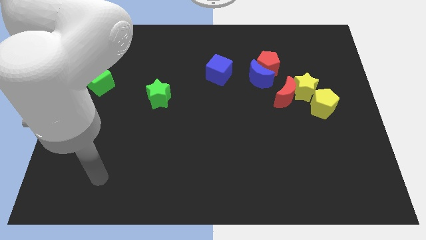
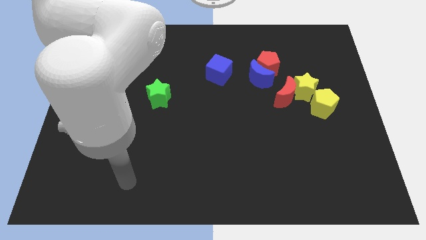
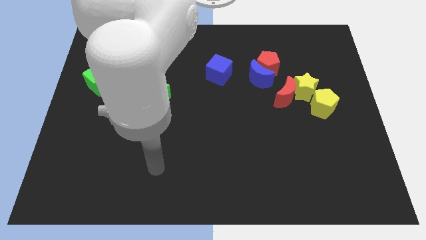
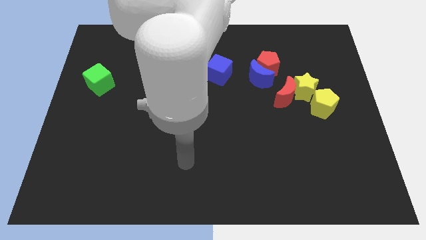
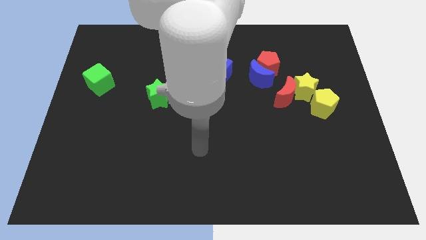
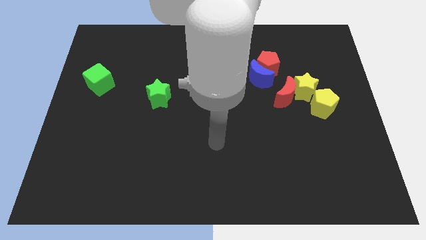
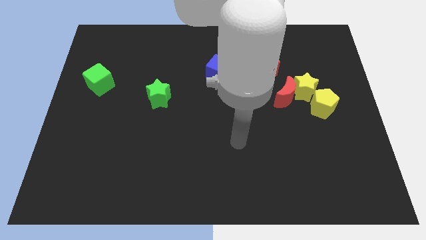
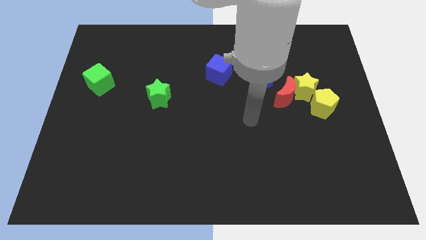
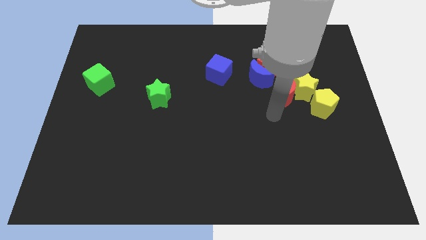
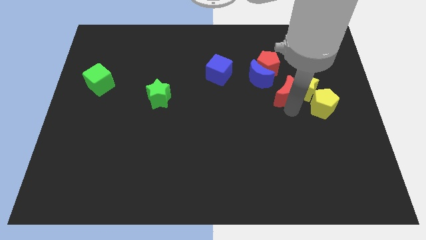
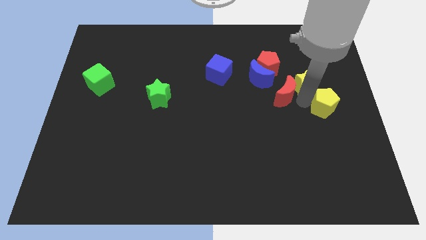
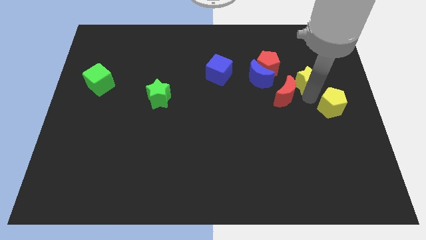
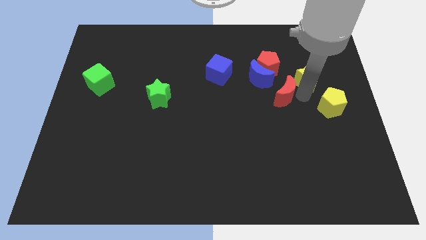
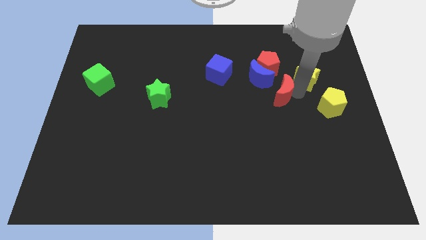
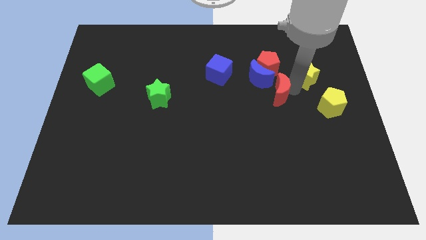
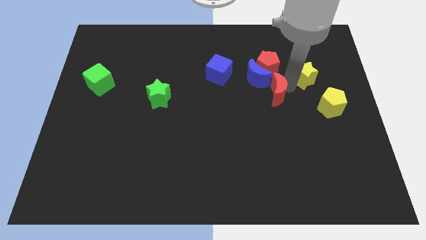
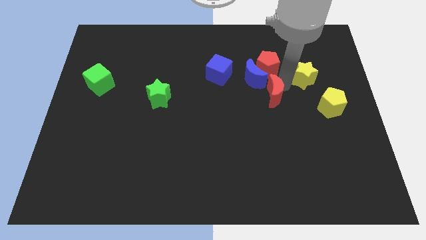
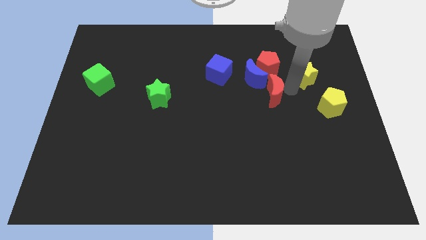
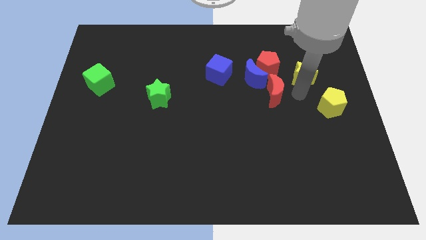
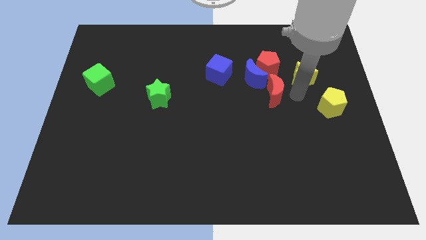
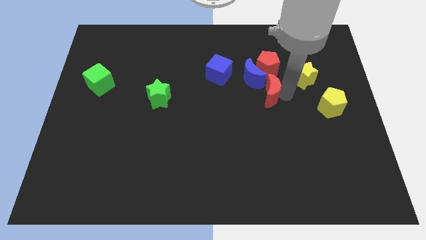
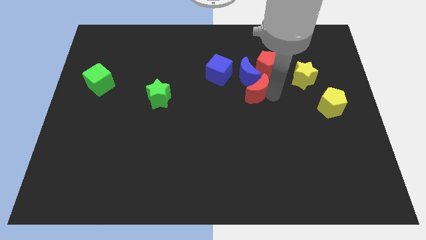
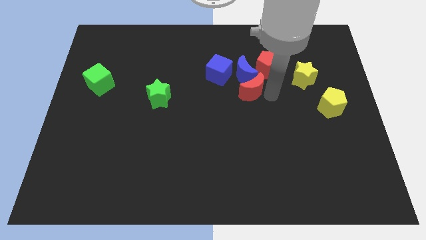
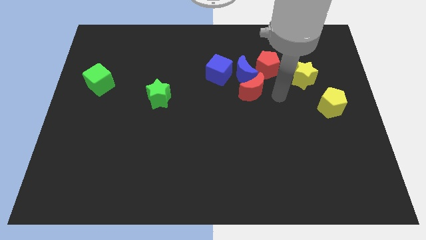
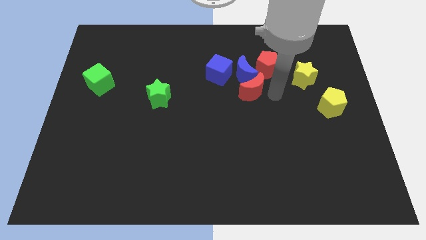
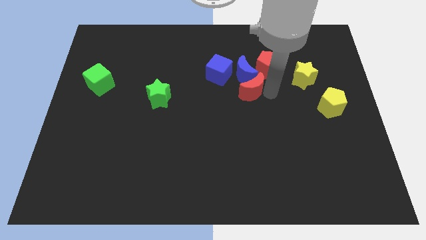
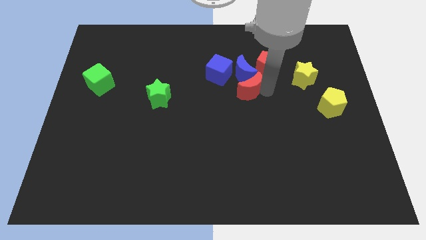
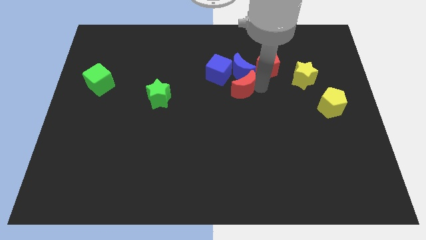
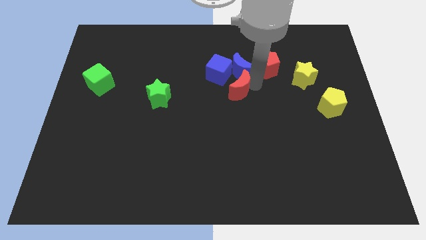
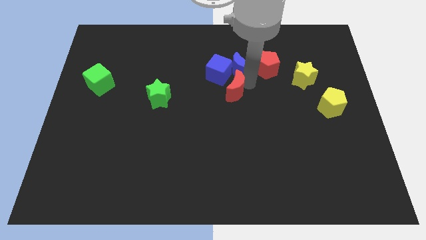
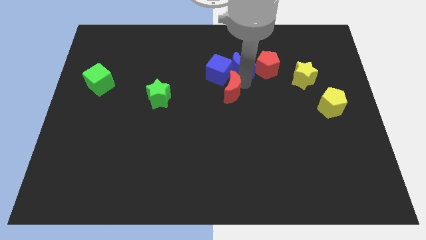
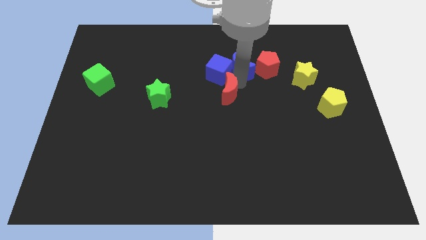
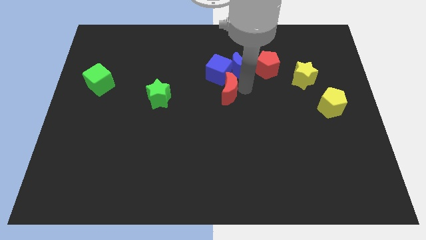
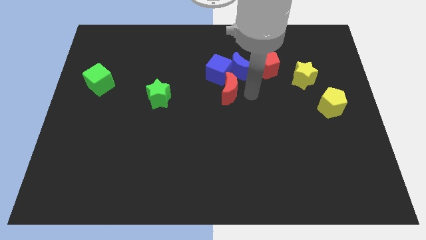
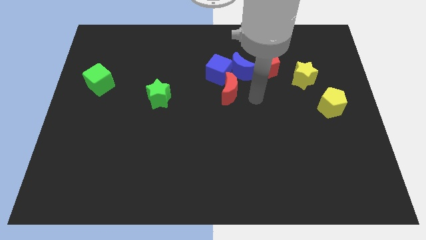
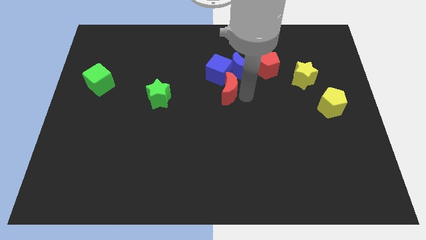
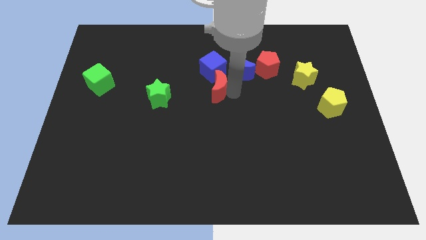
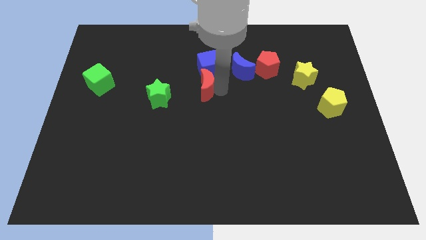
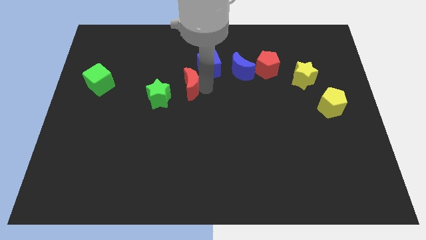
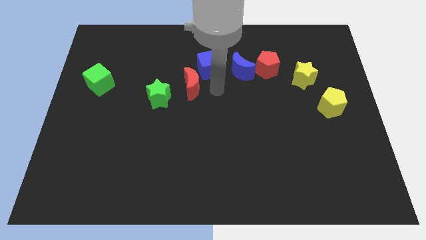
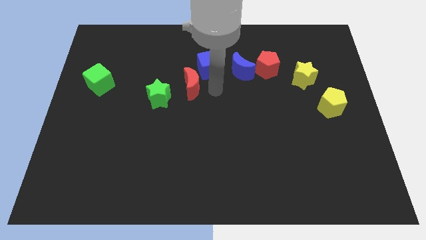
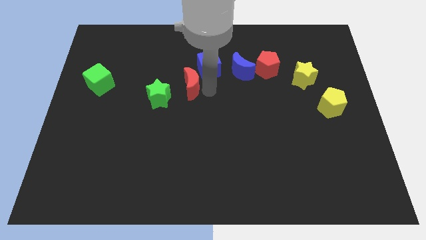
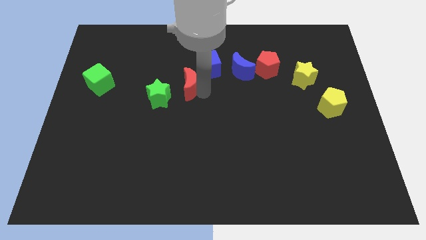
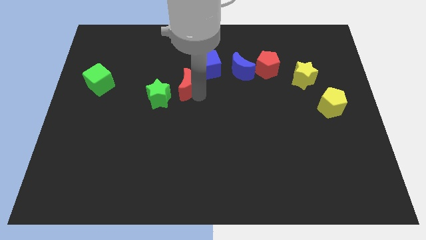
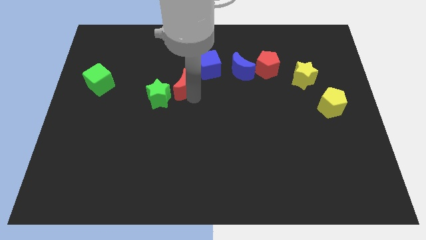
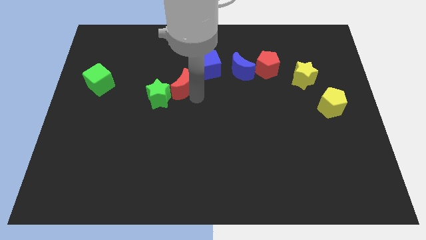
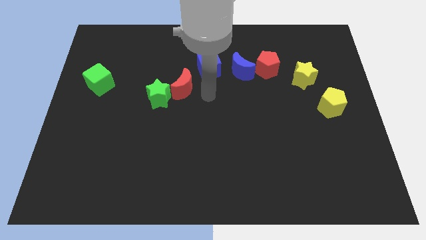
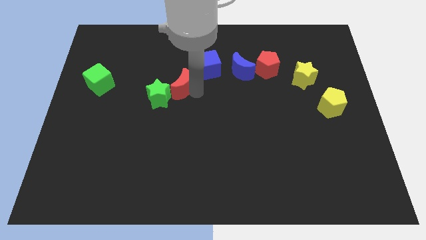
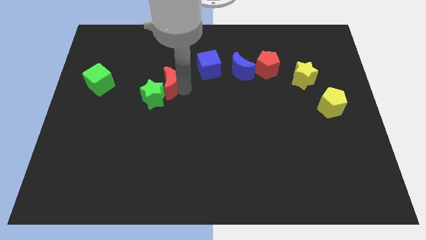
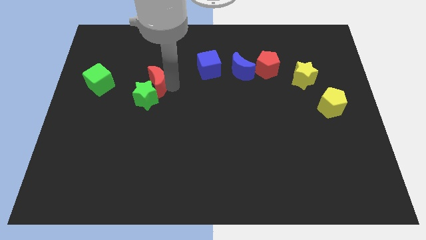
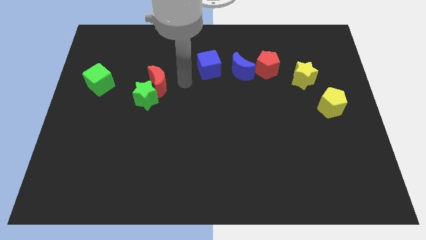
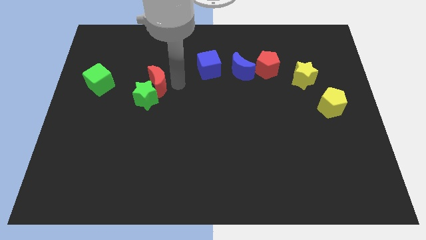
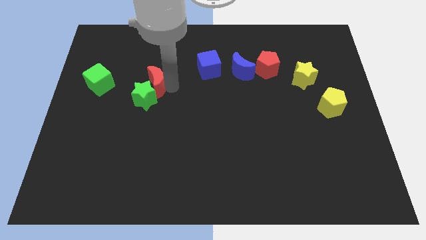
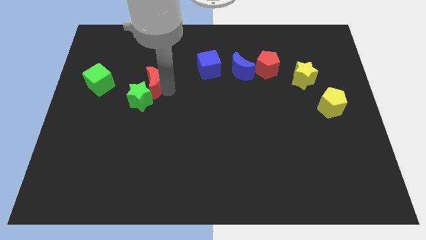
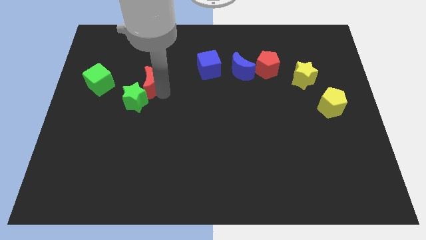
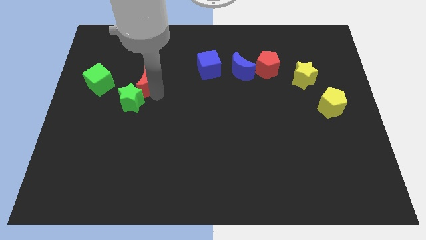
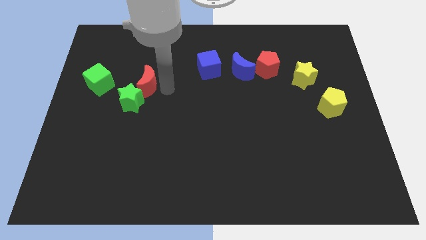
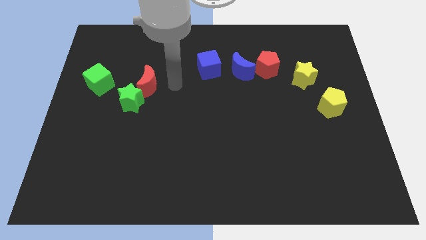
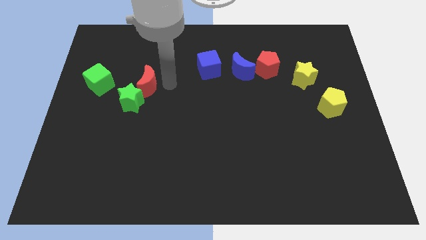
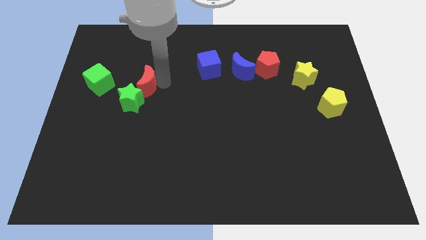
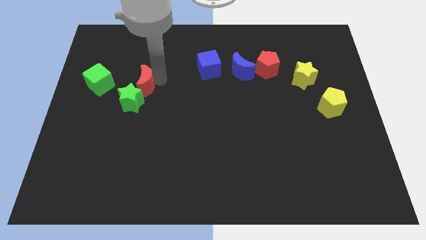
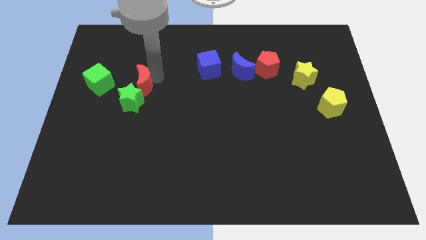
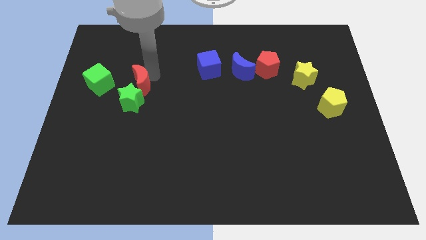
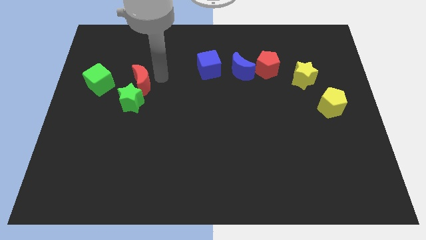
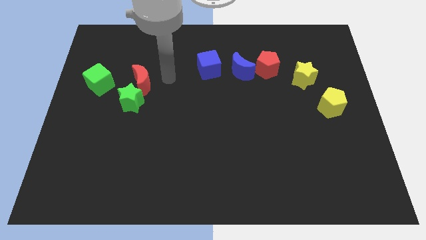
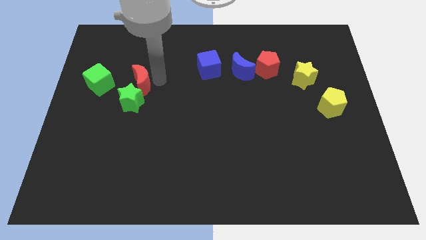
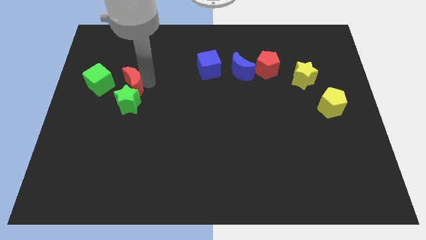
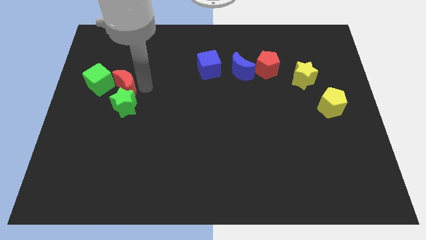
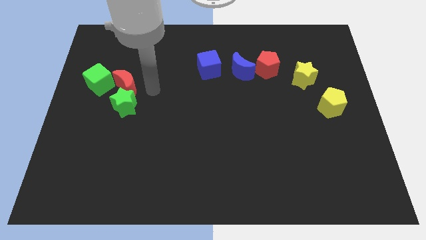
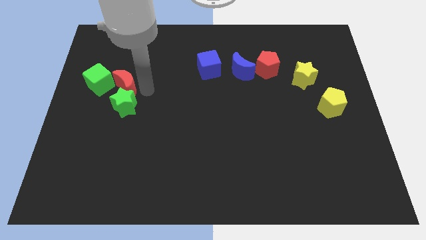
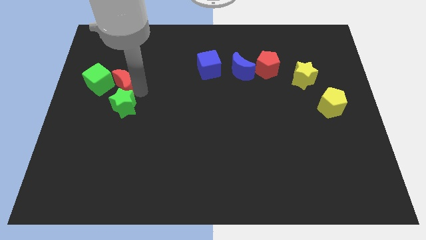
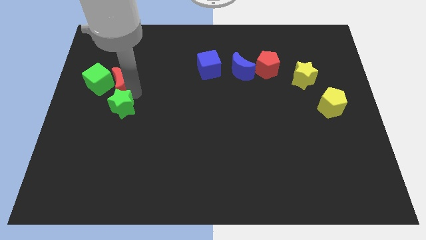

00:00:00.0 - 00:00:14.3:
push the red moon to the green cube

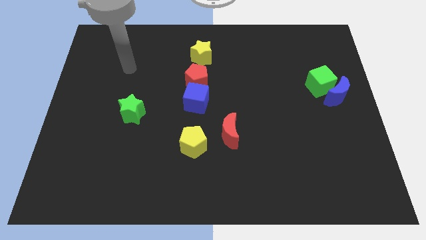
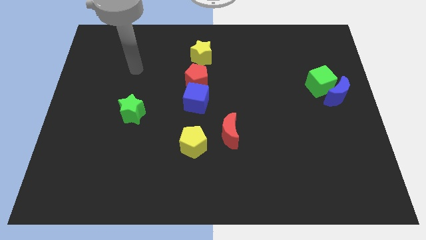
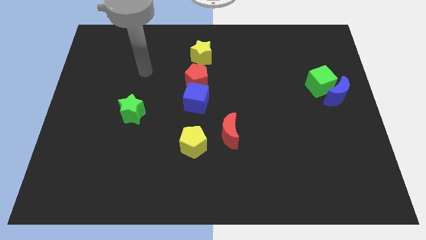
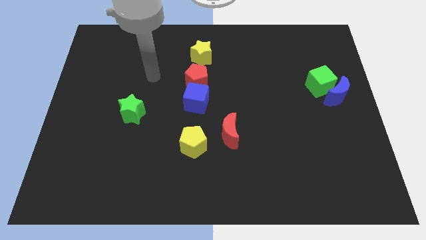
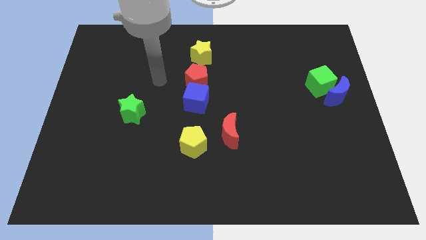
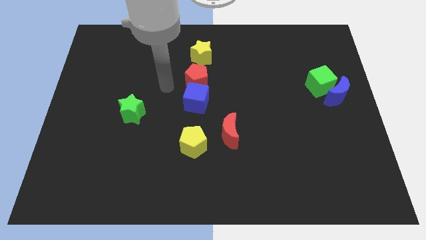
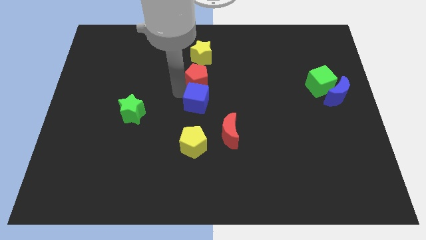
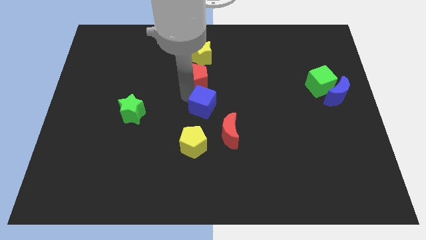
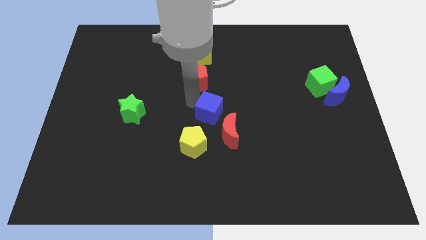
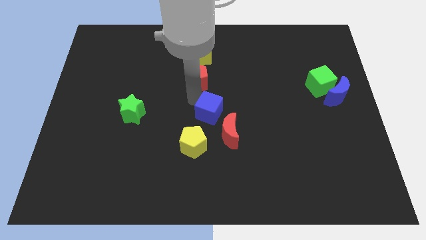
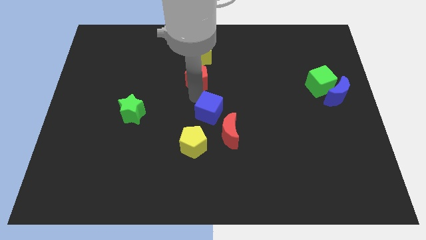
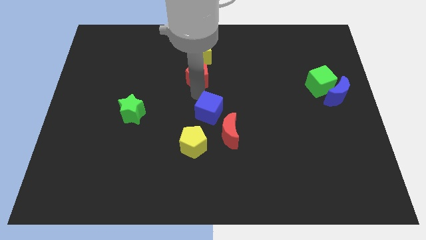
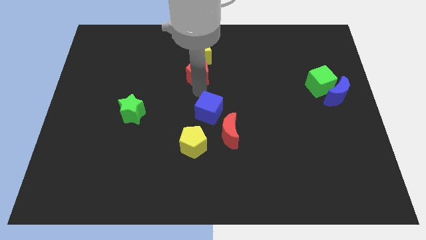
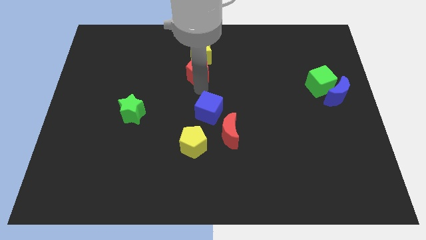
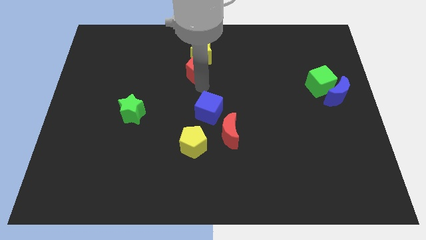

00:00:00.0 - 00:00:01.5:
push the red pentagon close to the yellow star
